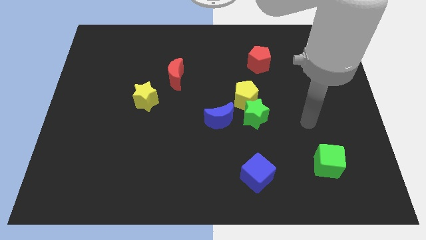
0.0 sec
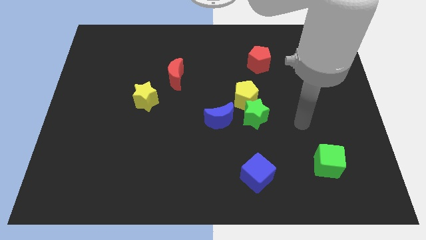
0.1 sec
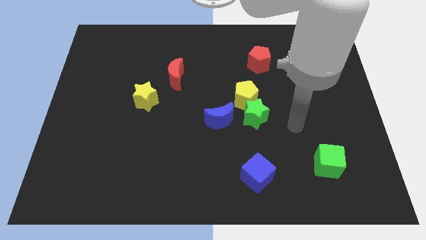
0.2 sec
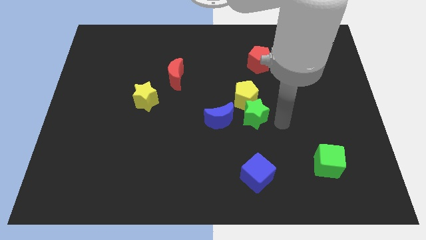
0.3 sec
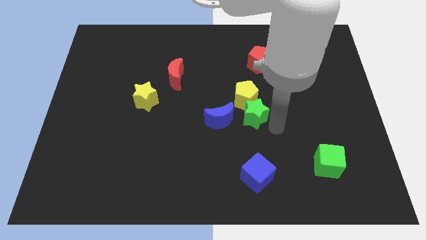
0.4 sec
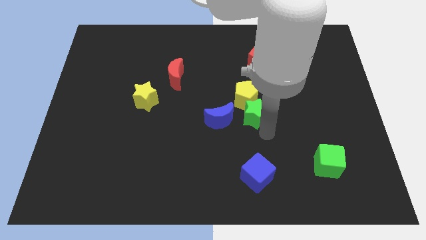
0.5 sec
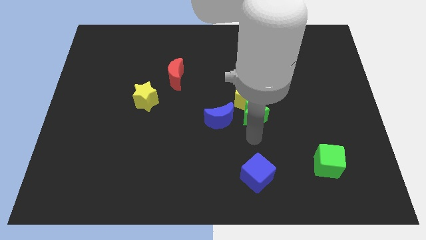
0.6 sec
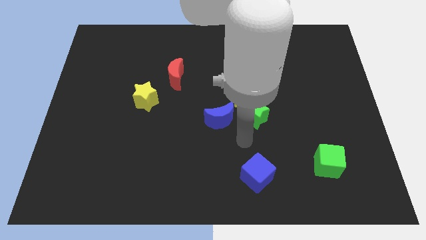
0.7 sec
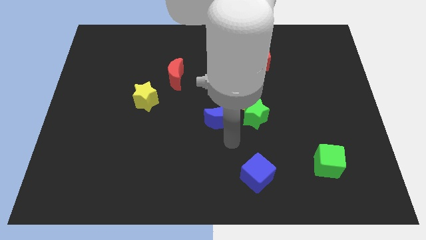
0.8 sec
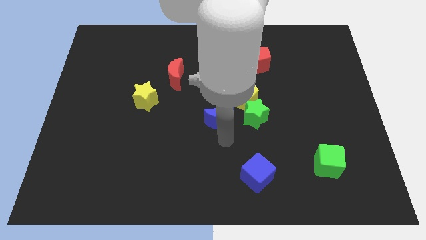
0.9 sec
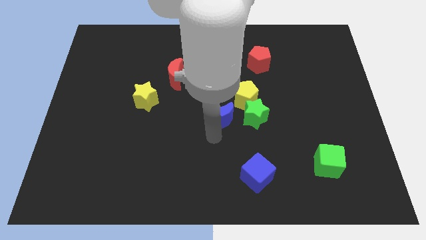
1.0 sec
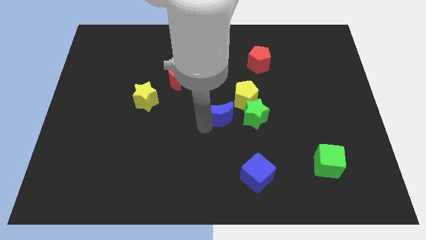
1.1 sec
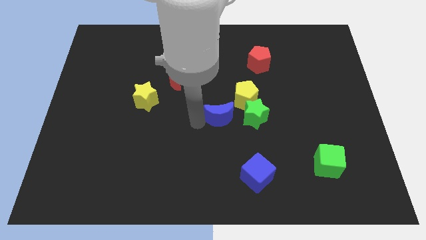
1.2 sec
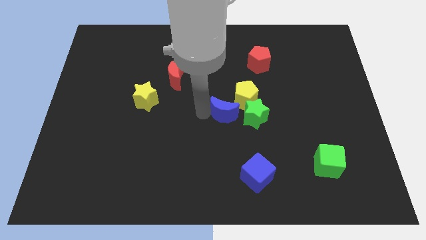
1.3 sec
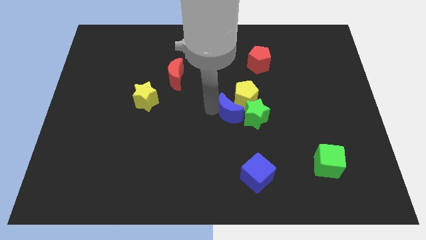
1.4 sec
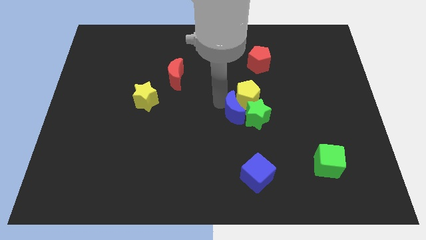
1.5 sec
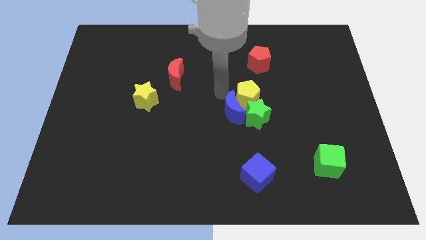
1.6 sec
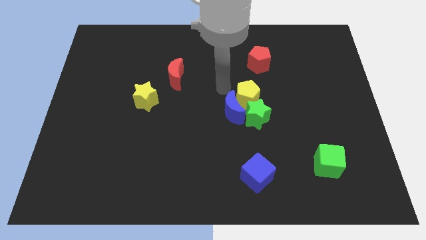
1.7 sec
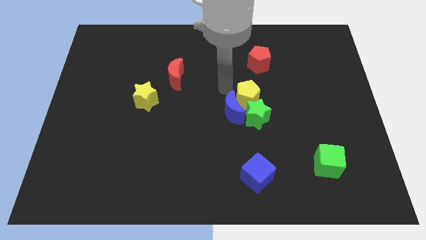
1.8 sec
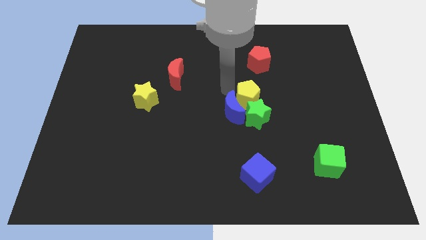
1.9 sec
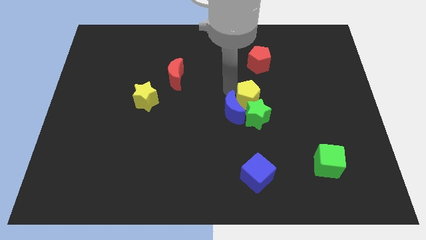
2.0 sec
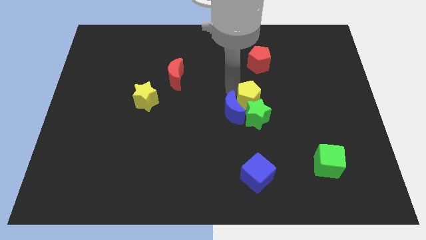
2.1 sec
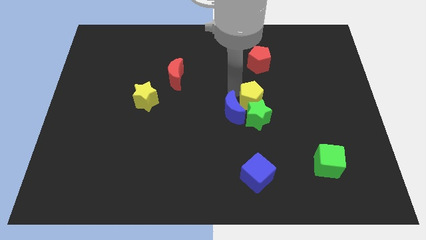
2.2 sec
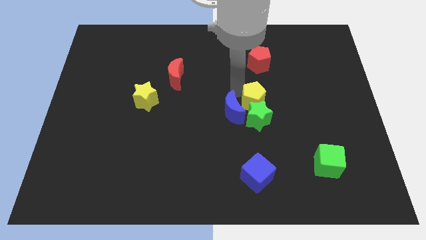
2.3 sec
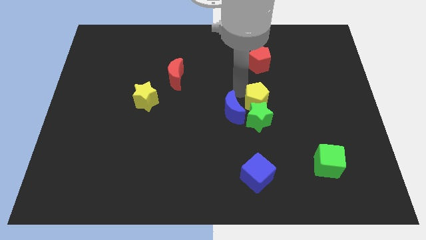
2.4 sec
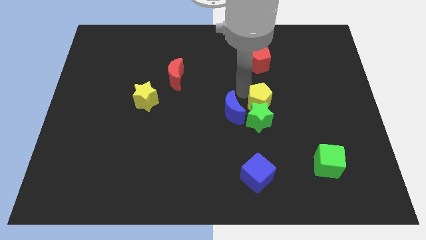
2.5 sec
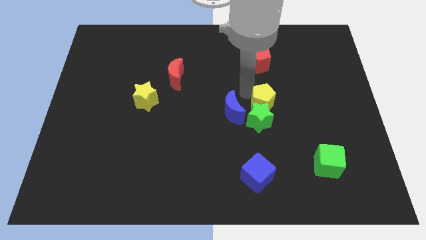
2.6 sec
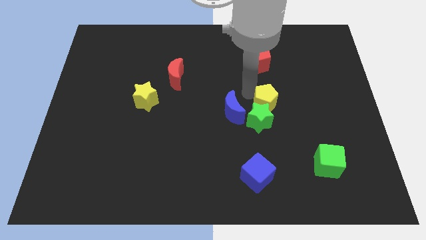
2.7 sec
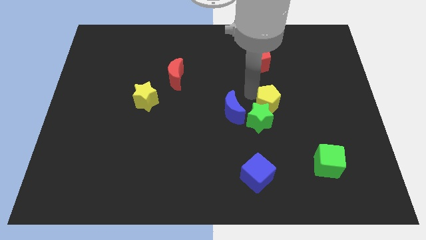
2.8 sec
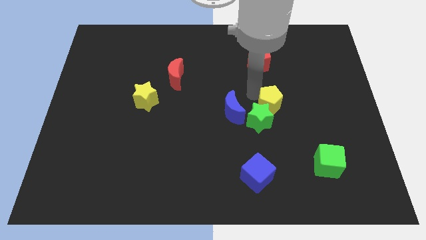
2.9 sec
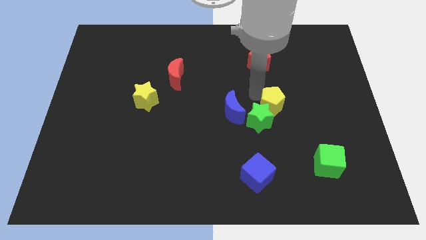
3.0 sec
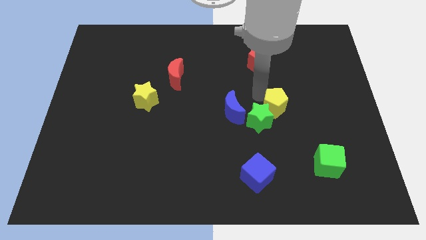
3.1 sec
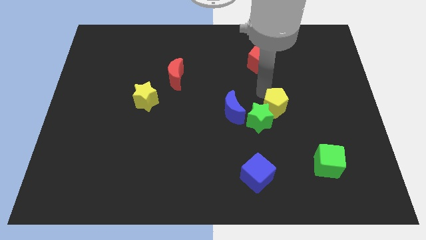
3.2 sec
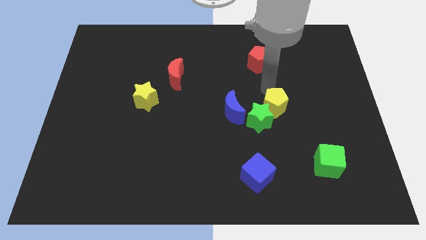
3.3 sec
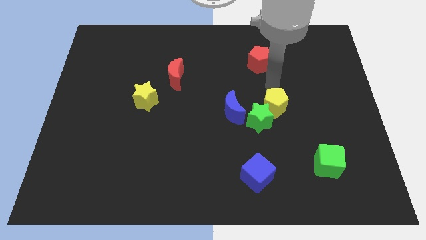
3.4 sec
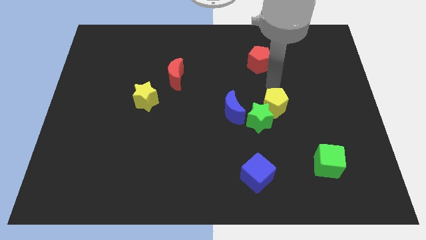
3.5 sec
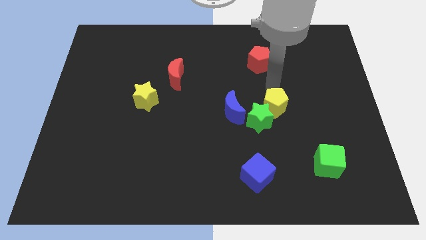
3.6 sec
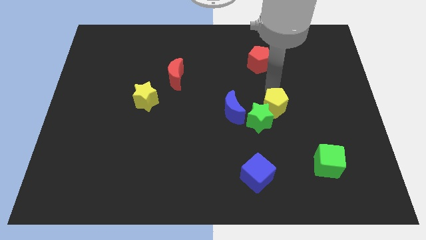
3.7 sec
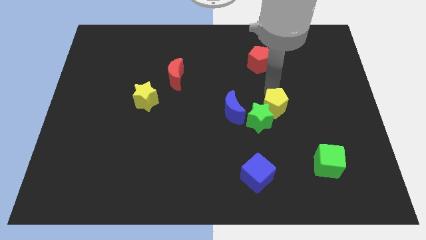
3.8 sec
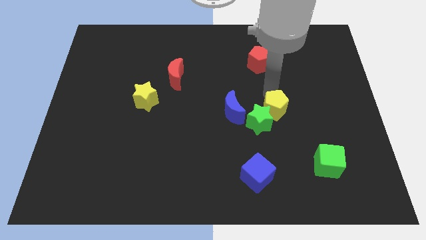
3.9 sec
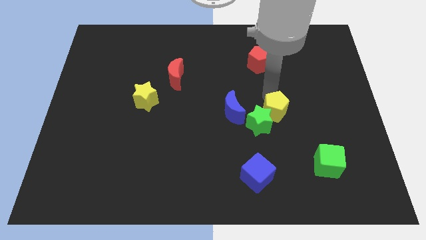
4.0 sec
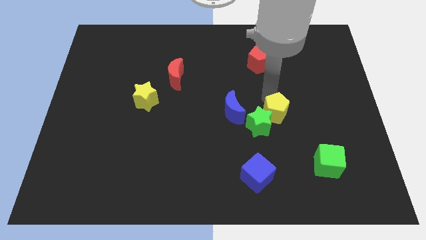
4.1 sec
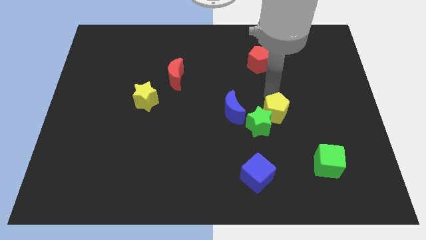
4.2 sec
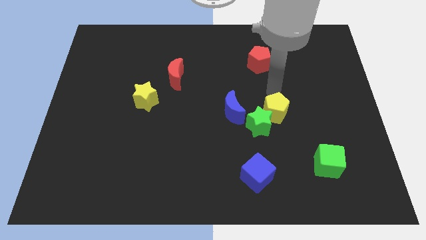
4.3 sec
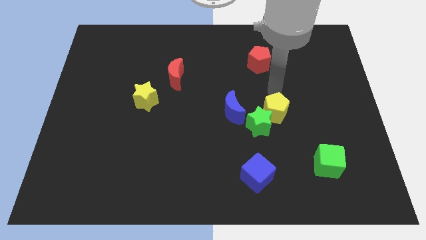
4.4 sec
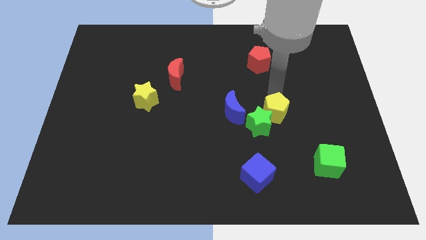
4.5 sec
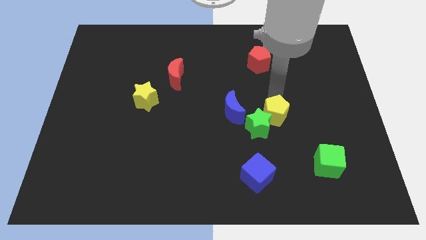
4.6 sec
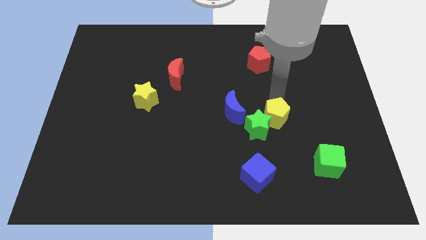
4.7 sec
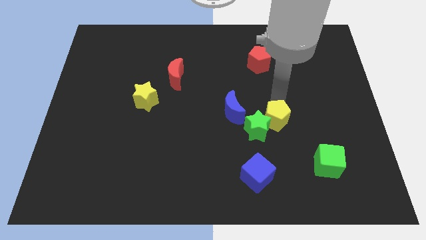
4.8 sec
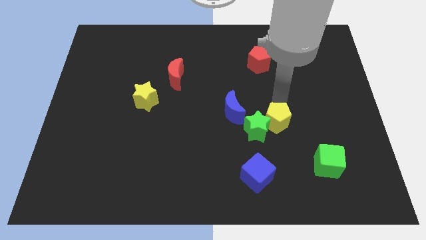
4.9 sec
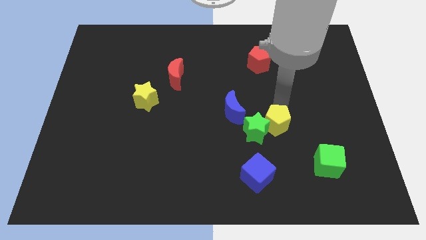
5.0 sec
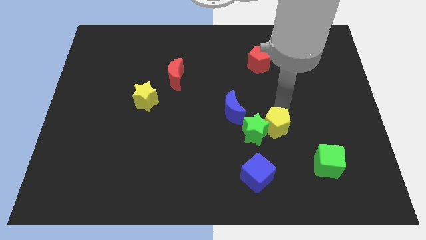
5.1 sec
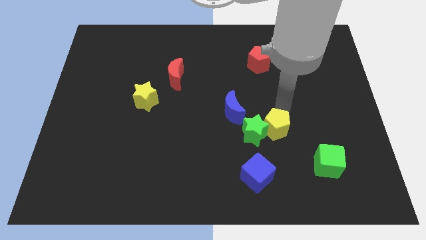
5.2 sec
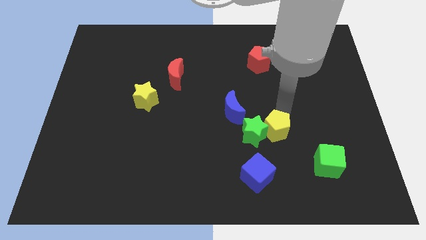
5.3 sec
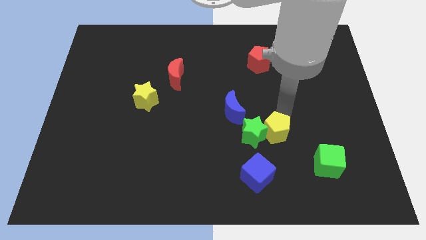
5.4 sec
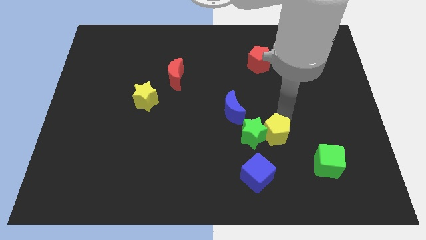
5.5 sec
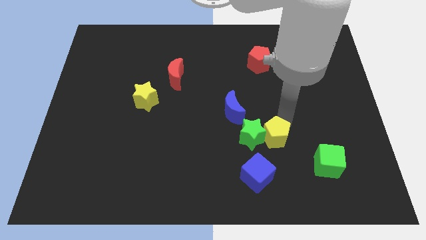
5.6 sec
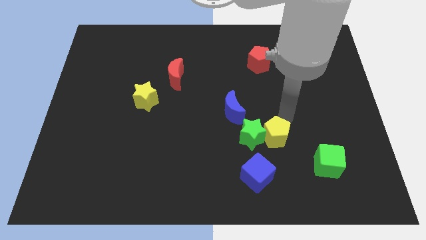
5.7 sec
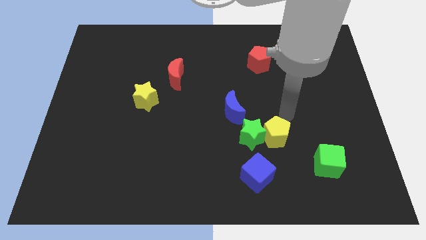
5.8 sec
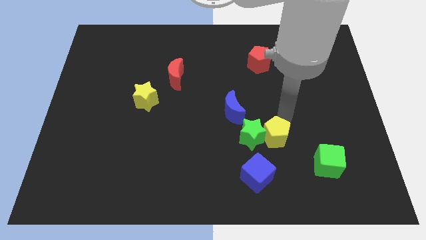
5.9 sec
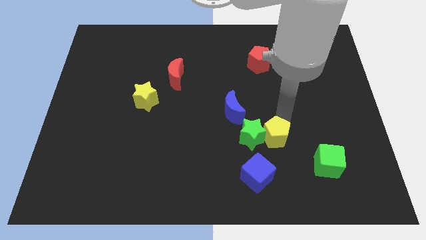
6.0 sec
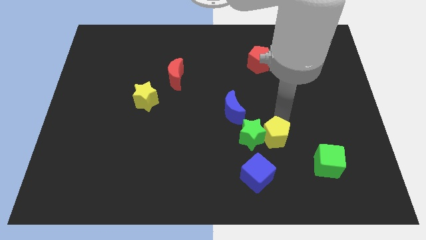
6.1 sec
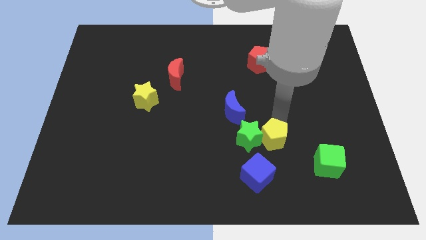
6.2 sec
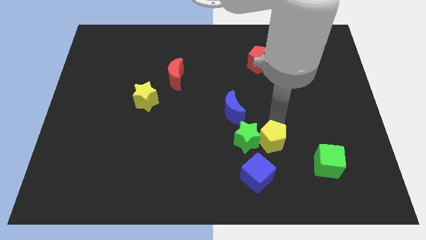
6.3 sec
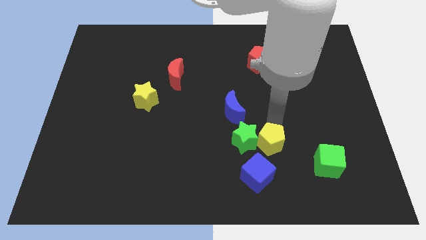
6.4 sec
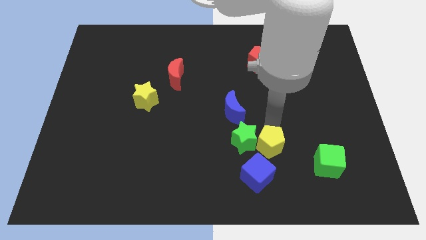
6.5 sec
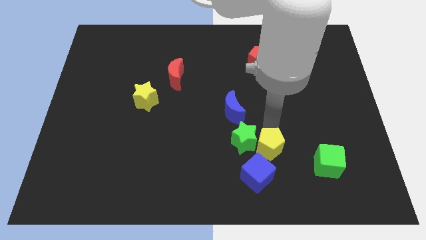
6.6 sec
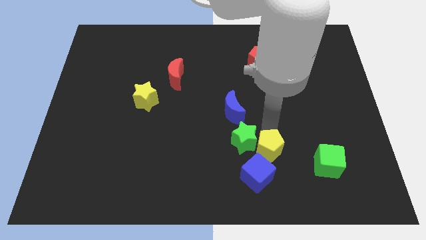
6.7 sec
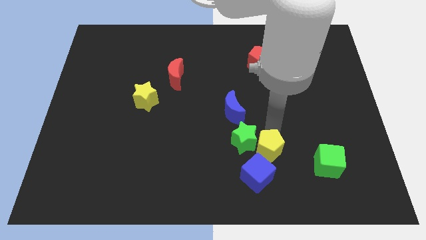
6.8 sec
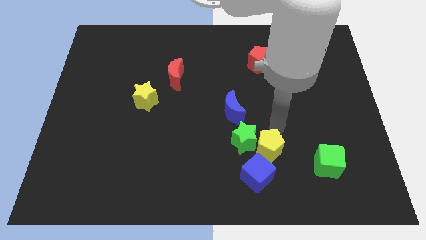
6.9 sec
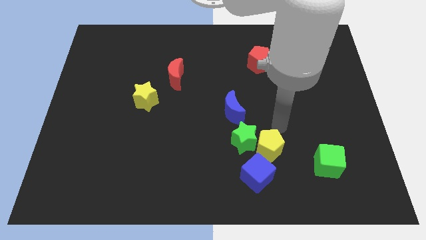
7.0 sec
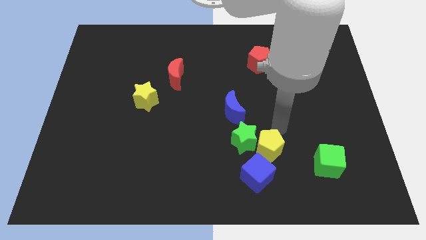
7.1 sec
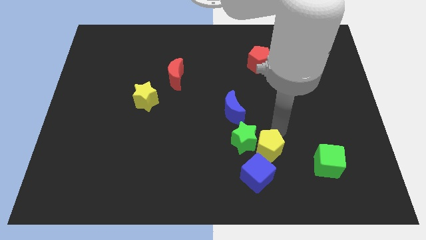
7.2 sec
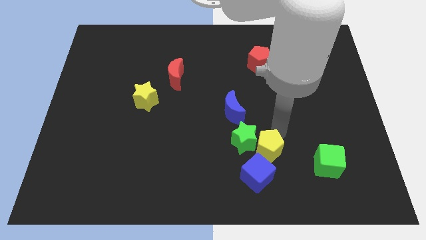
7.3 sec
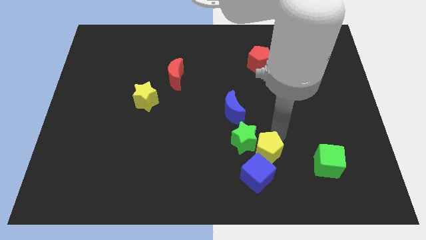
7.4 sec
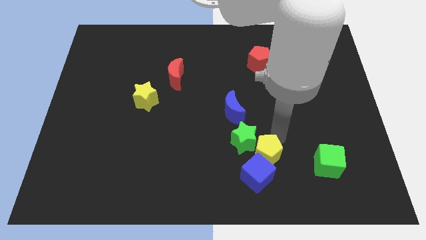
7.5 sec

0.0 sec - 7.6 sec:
put the yellow pentagon next to the blue cube
